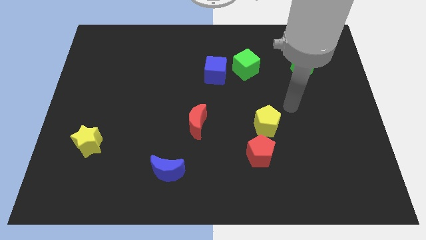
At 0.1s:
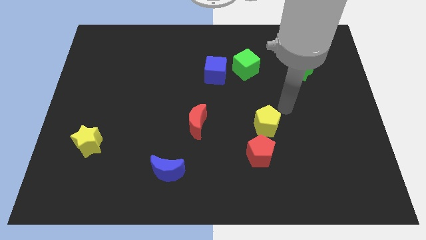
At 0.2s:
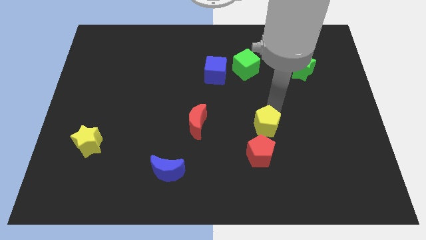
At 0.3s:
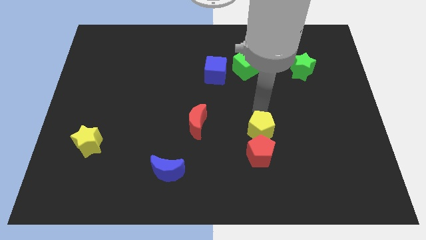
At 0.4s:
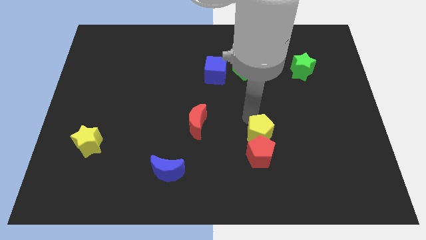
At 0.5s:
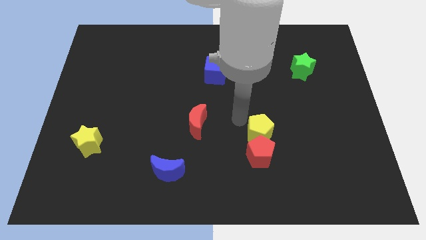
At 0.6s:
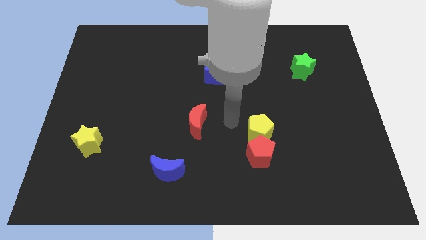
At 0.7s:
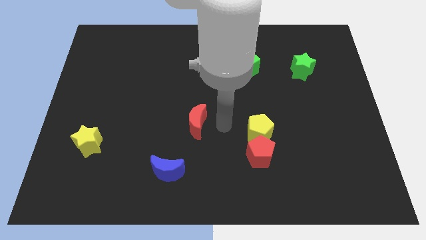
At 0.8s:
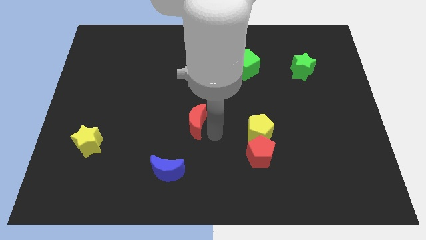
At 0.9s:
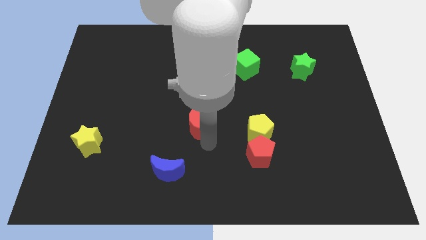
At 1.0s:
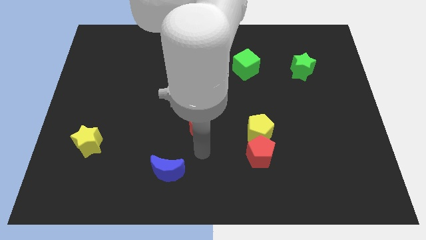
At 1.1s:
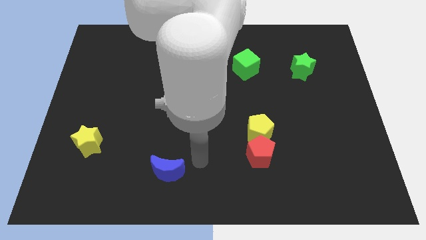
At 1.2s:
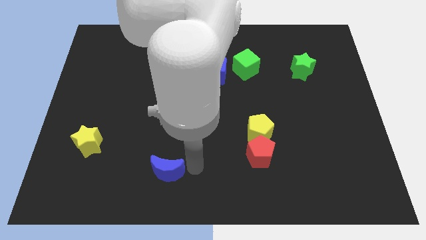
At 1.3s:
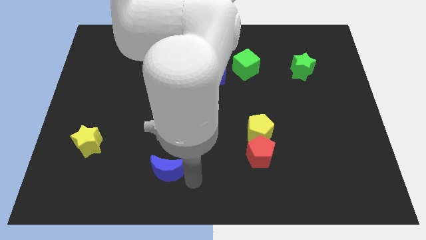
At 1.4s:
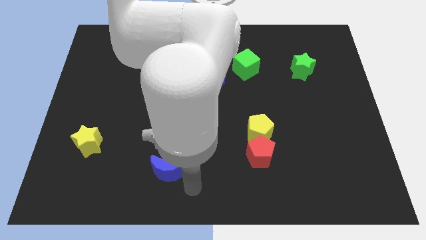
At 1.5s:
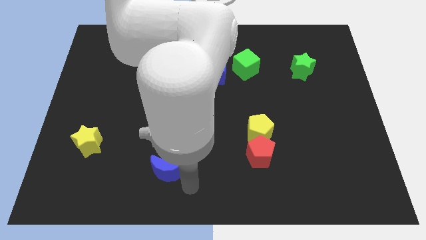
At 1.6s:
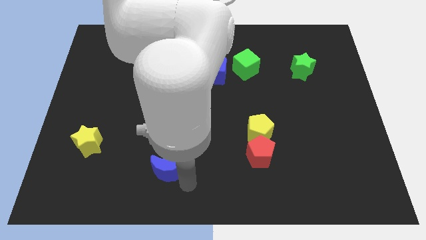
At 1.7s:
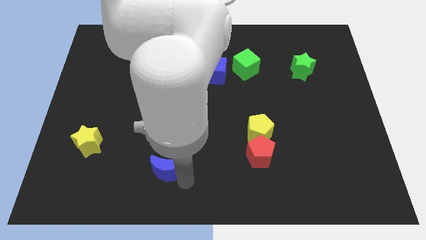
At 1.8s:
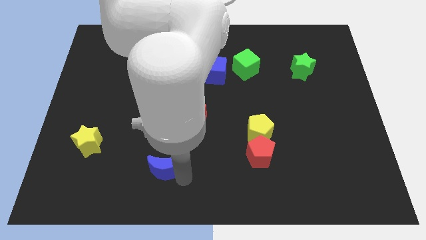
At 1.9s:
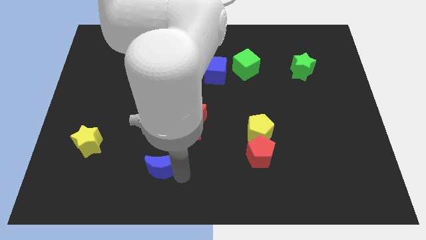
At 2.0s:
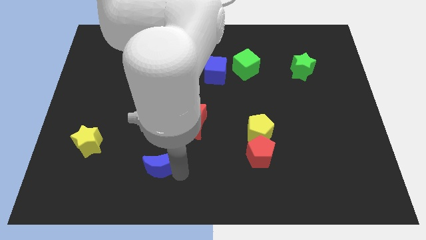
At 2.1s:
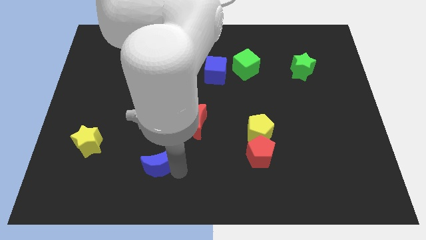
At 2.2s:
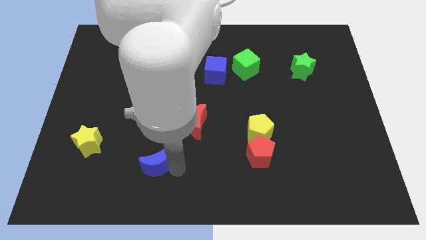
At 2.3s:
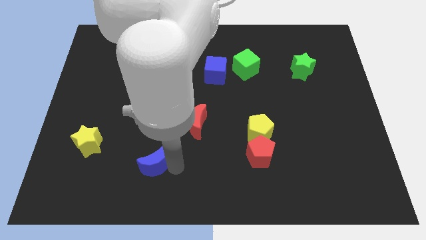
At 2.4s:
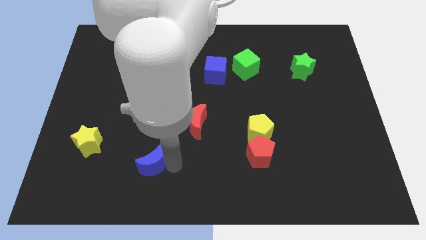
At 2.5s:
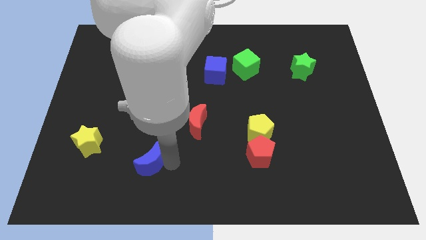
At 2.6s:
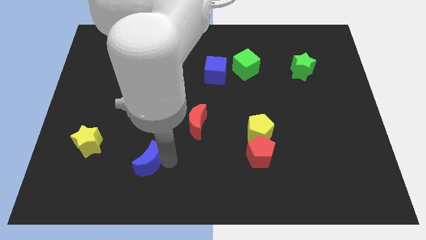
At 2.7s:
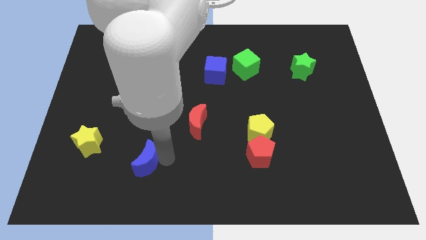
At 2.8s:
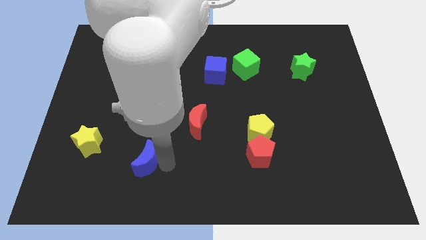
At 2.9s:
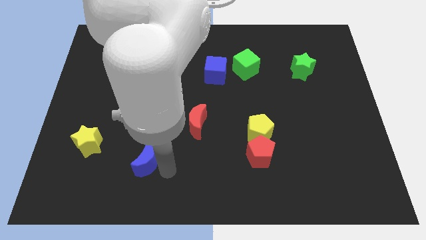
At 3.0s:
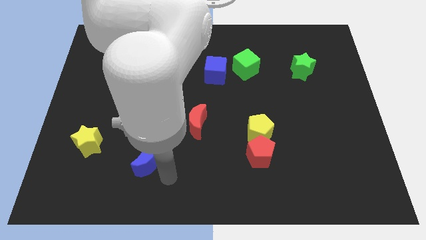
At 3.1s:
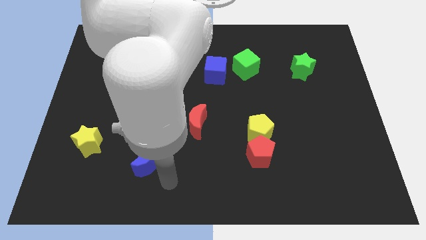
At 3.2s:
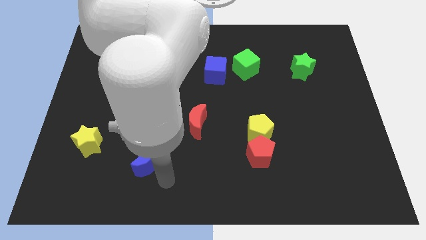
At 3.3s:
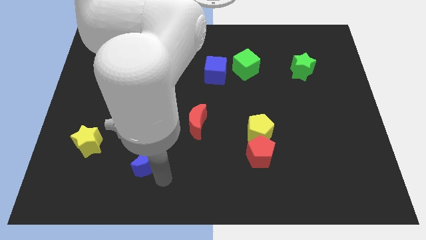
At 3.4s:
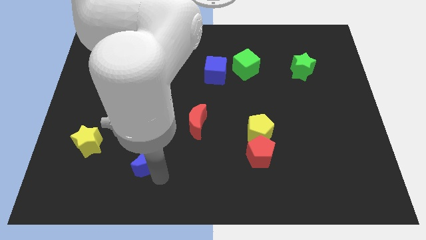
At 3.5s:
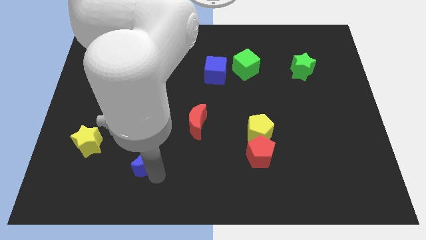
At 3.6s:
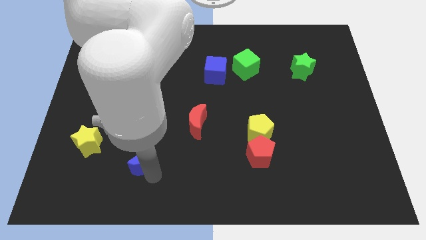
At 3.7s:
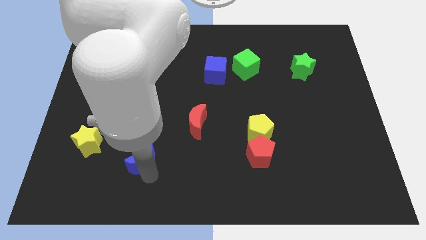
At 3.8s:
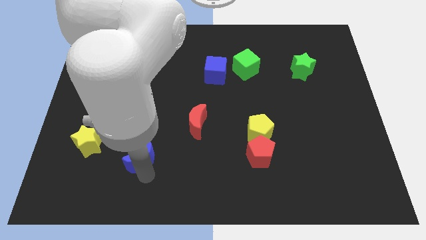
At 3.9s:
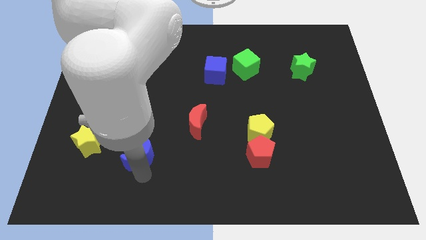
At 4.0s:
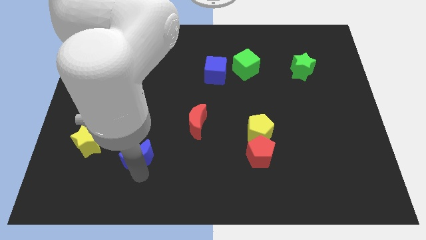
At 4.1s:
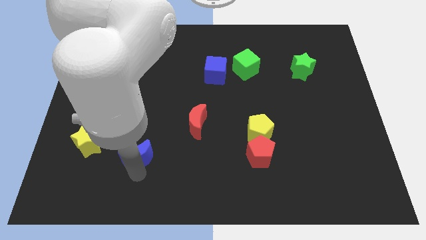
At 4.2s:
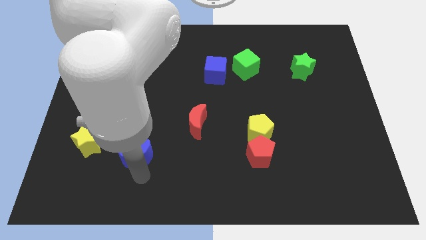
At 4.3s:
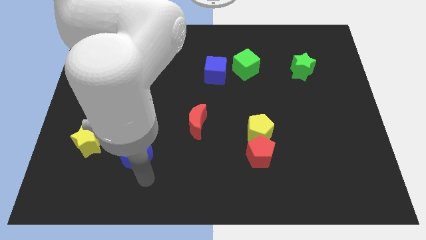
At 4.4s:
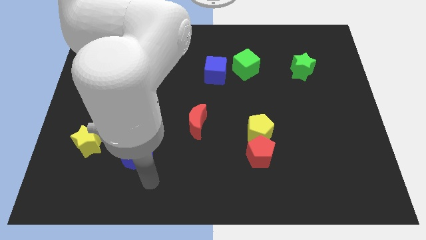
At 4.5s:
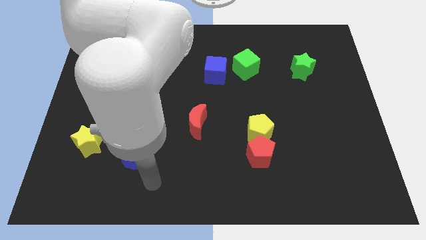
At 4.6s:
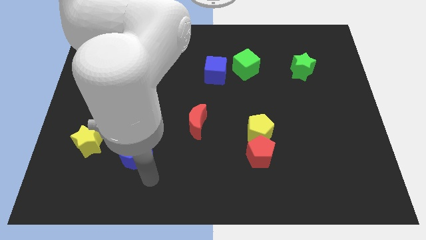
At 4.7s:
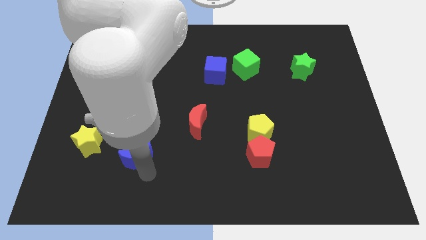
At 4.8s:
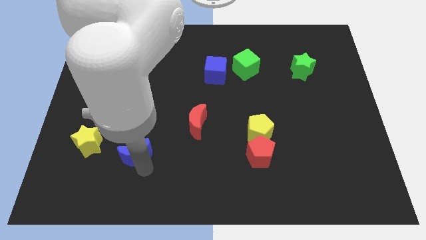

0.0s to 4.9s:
slightly slide the blue moon up and to the left diagonally

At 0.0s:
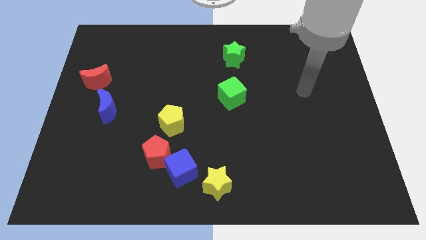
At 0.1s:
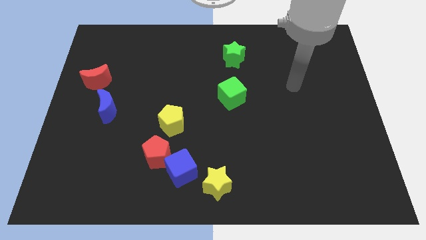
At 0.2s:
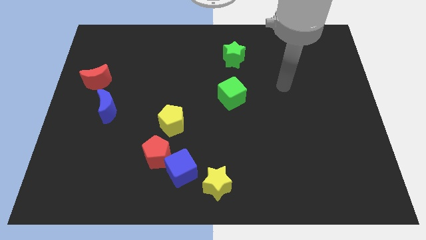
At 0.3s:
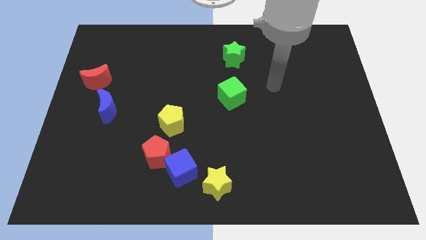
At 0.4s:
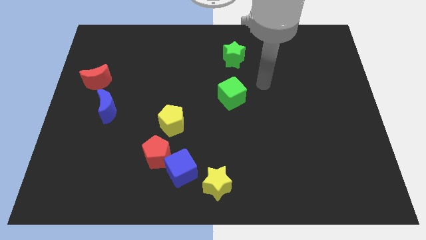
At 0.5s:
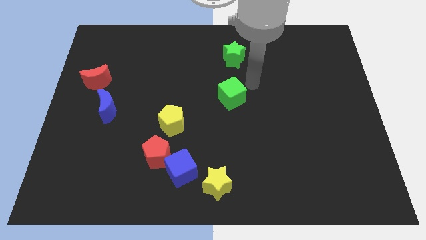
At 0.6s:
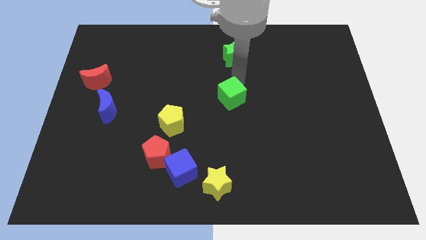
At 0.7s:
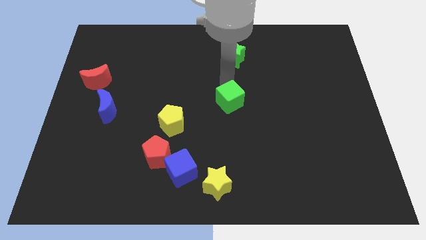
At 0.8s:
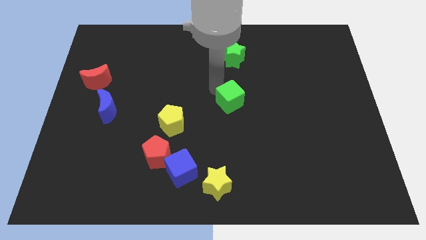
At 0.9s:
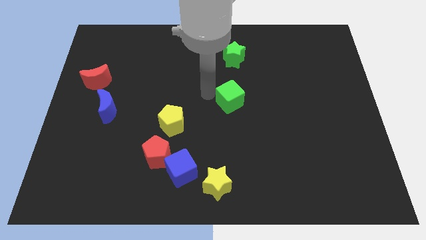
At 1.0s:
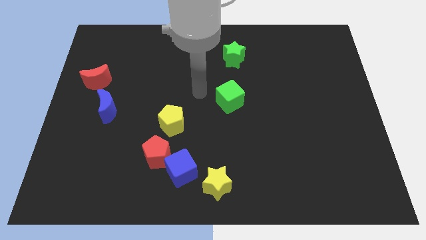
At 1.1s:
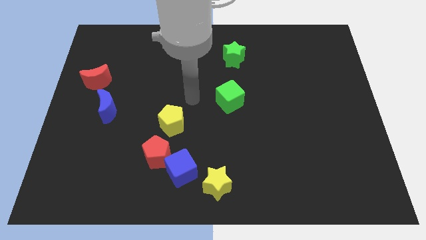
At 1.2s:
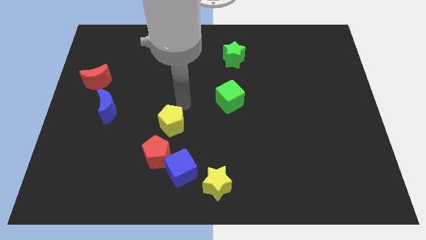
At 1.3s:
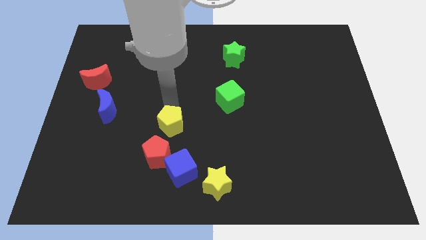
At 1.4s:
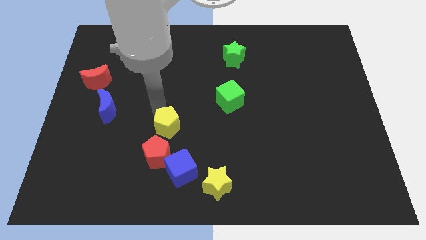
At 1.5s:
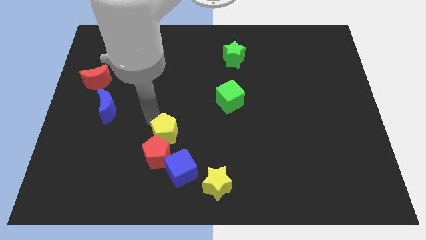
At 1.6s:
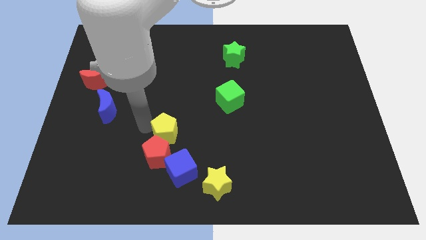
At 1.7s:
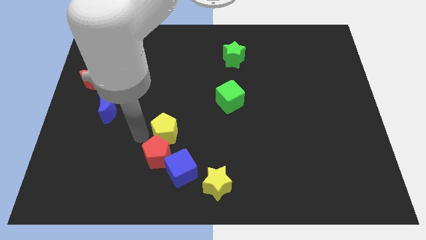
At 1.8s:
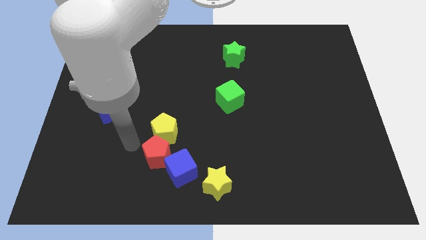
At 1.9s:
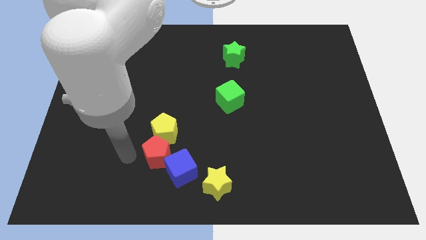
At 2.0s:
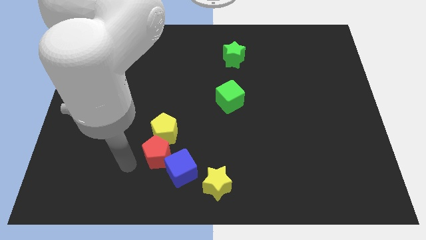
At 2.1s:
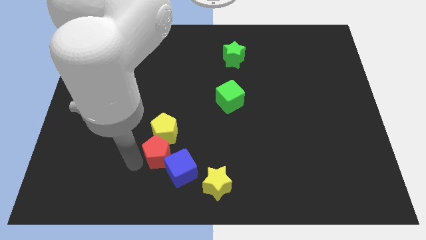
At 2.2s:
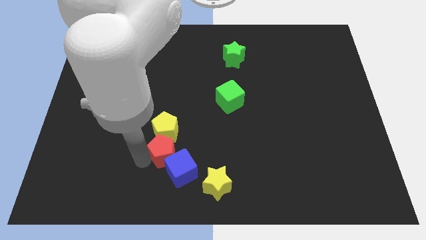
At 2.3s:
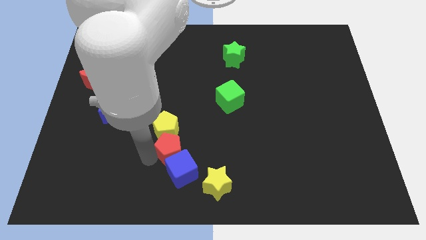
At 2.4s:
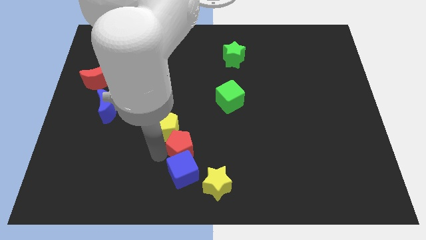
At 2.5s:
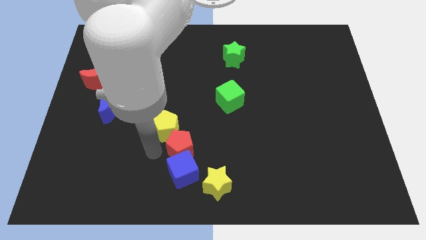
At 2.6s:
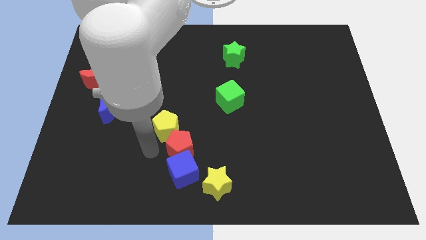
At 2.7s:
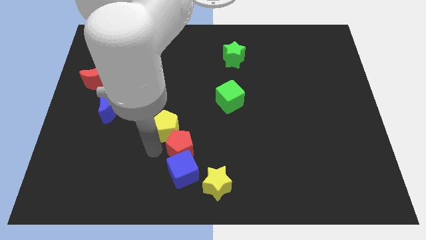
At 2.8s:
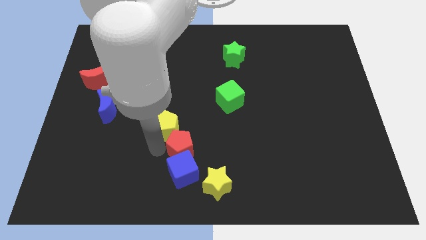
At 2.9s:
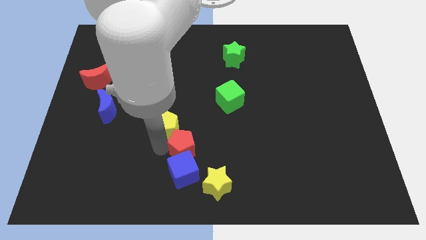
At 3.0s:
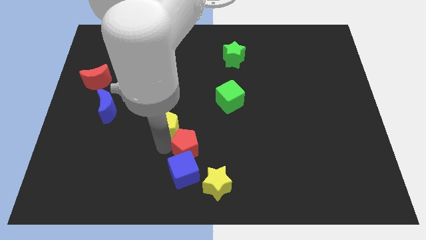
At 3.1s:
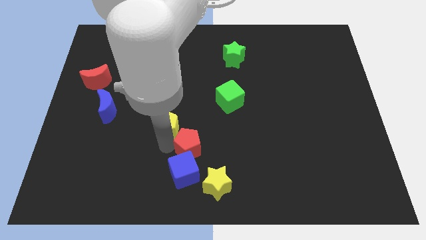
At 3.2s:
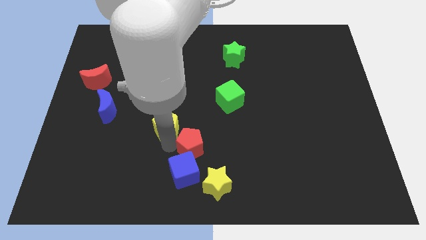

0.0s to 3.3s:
push the red pentagon to the right a little bit
